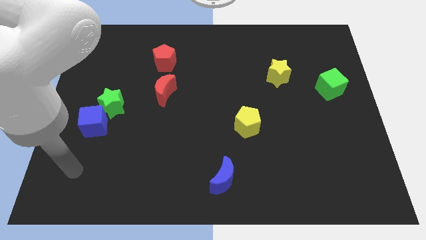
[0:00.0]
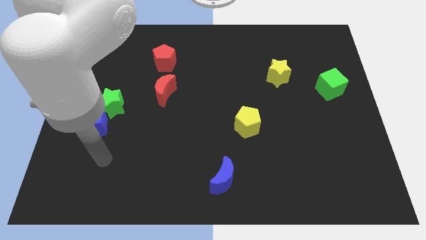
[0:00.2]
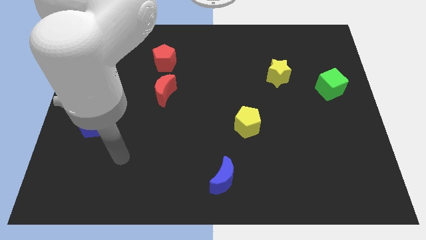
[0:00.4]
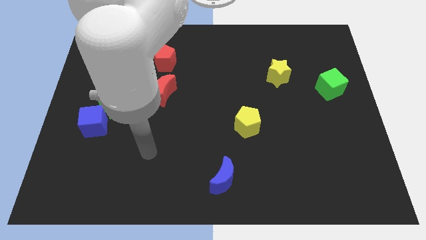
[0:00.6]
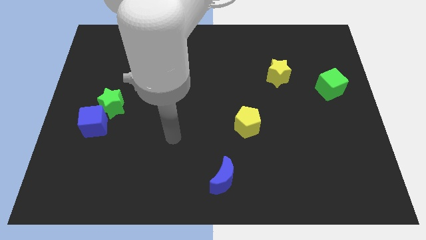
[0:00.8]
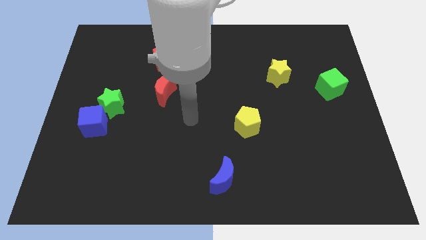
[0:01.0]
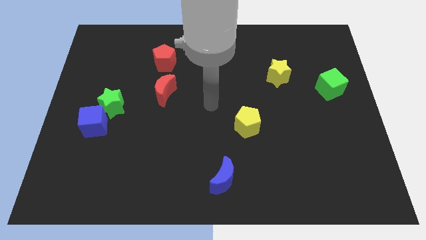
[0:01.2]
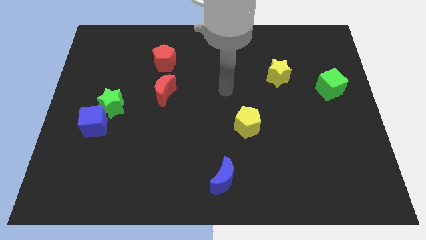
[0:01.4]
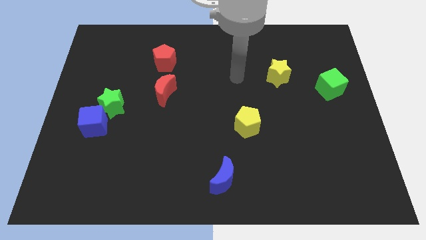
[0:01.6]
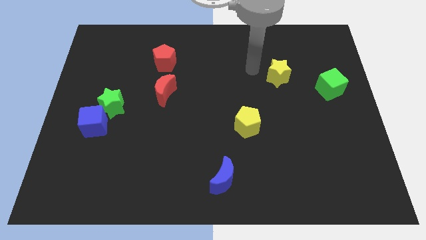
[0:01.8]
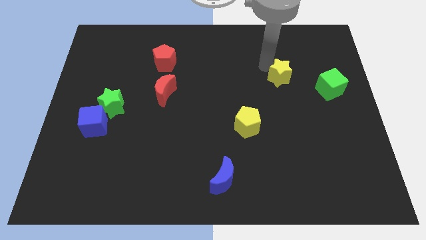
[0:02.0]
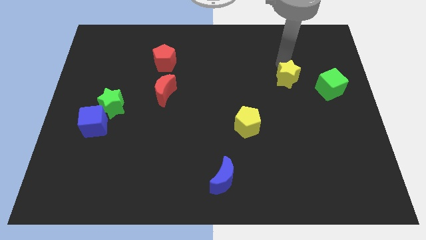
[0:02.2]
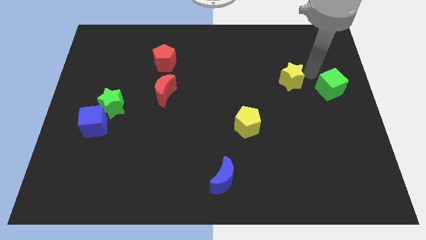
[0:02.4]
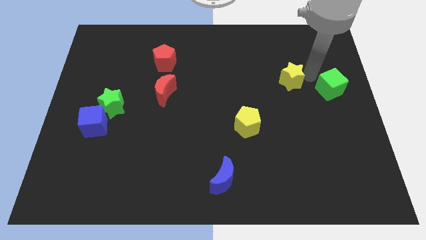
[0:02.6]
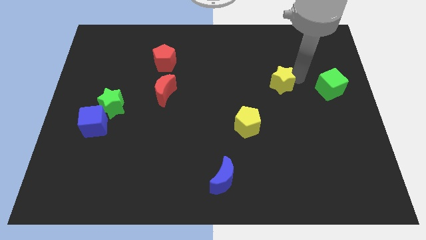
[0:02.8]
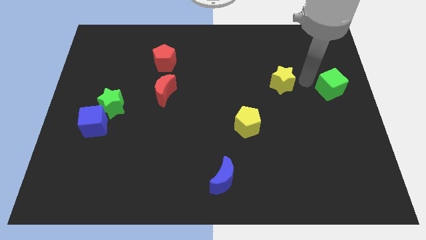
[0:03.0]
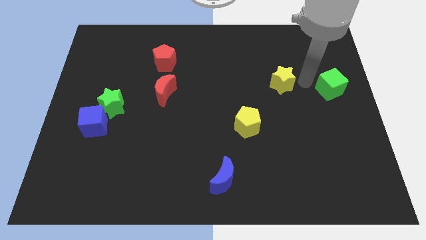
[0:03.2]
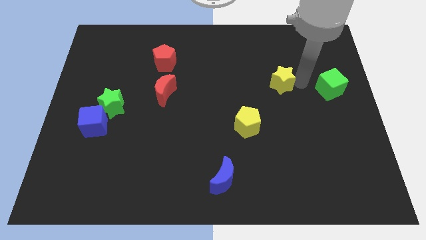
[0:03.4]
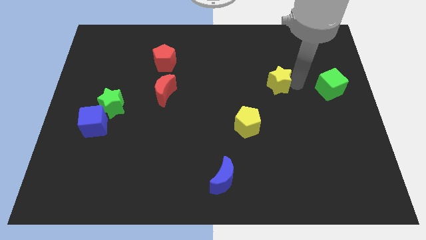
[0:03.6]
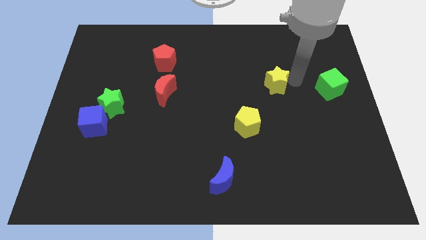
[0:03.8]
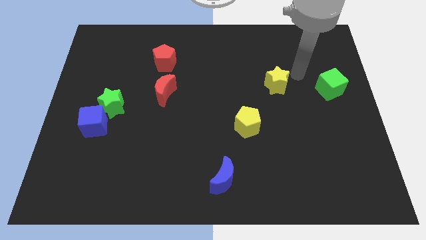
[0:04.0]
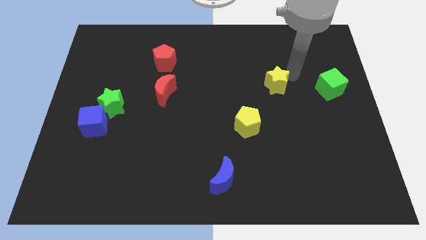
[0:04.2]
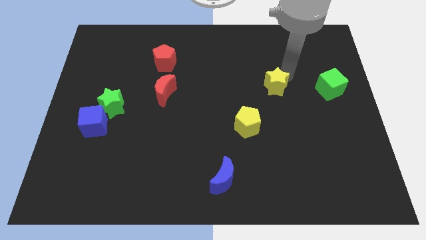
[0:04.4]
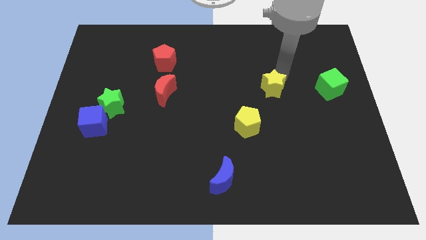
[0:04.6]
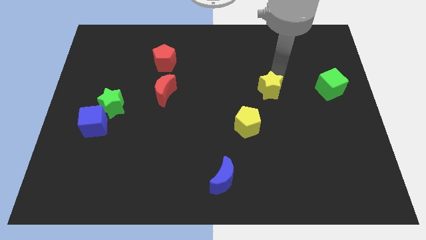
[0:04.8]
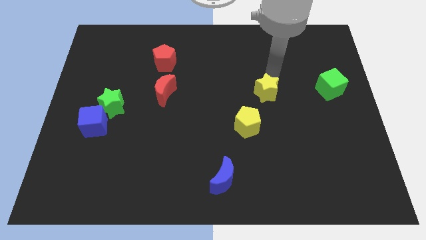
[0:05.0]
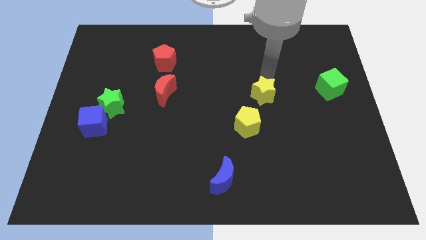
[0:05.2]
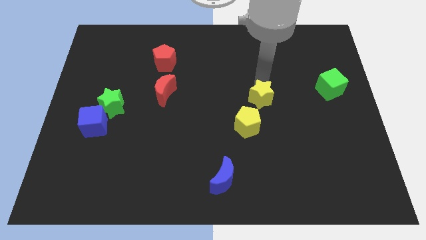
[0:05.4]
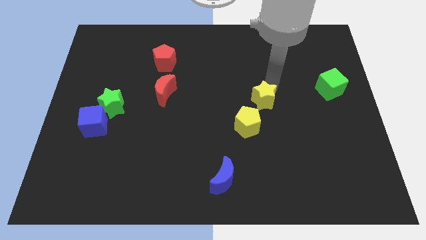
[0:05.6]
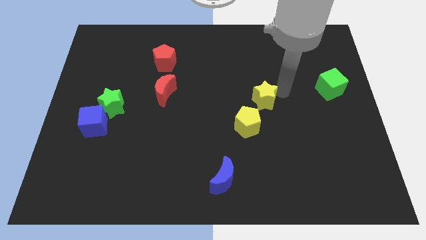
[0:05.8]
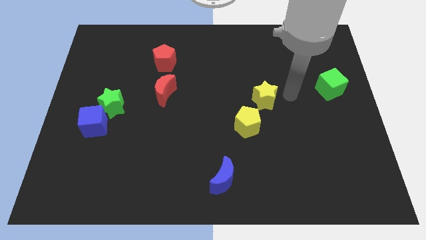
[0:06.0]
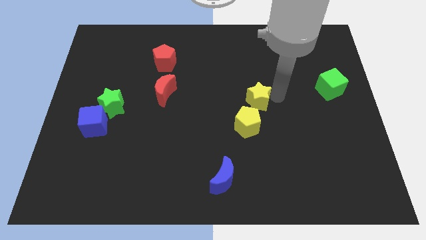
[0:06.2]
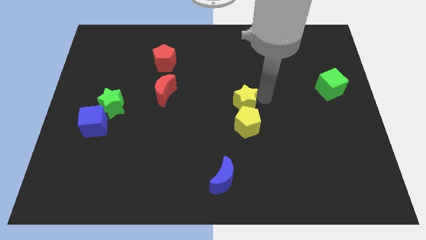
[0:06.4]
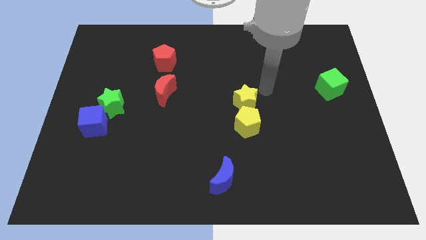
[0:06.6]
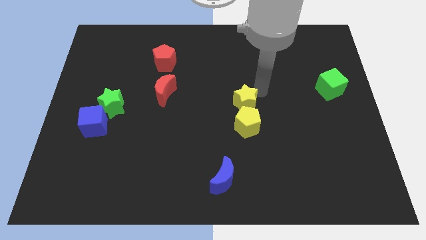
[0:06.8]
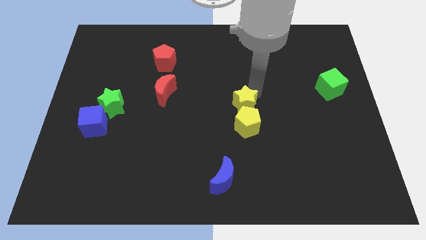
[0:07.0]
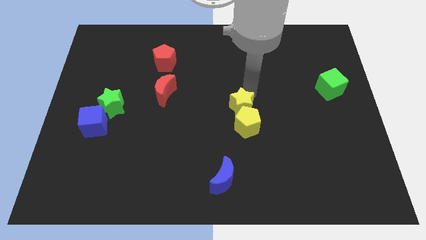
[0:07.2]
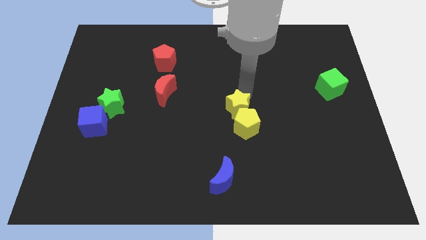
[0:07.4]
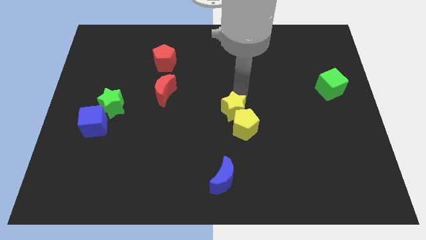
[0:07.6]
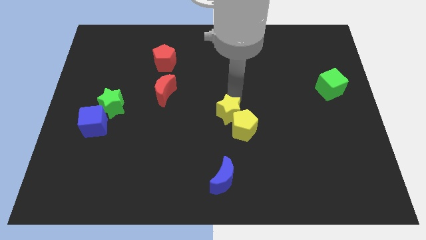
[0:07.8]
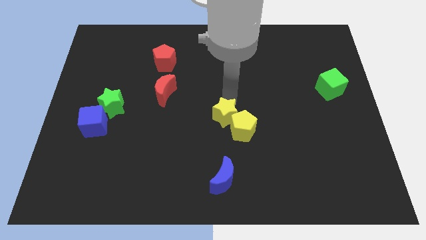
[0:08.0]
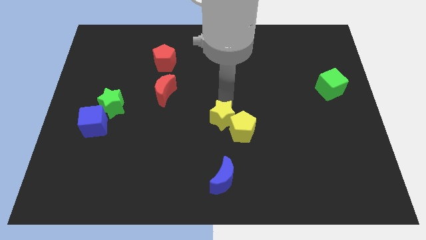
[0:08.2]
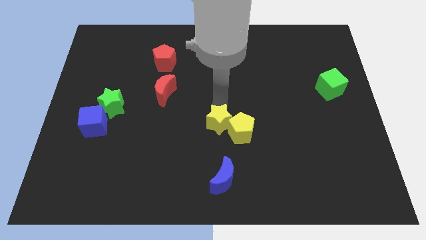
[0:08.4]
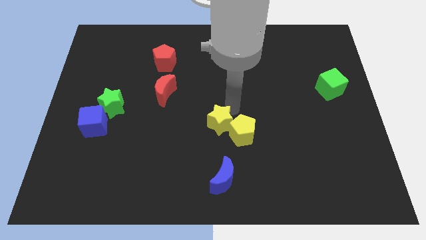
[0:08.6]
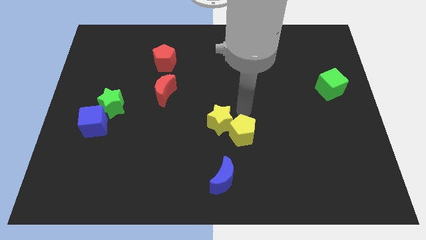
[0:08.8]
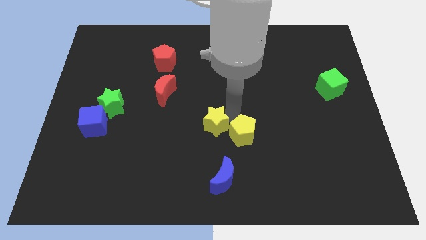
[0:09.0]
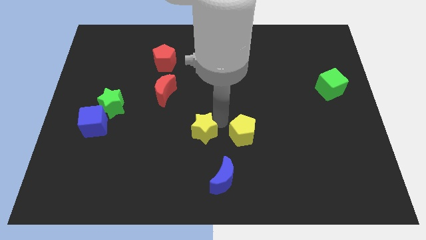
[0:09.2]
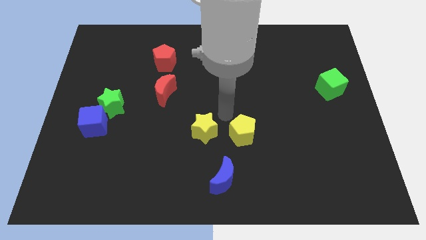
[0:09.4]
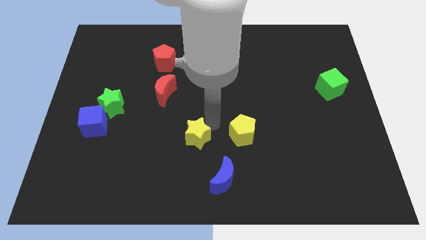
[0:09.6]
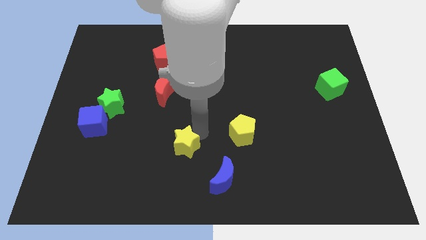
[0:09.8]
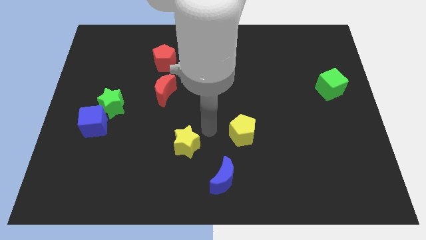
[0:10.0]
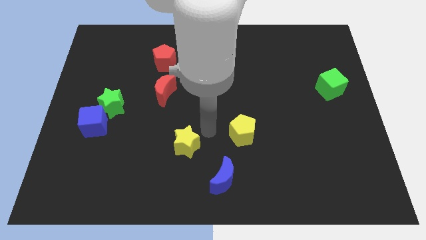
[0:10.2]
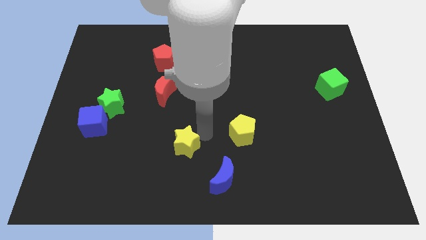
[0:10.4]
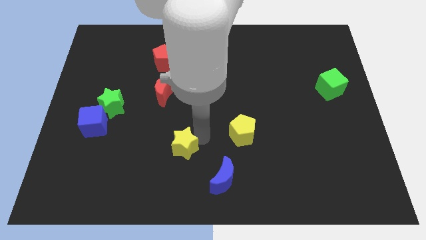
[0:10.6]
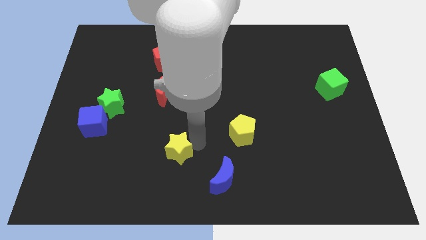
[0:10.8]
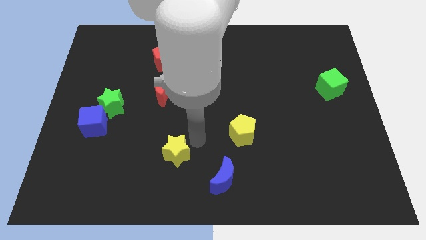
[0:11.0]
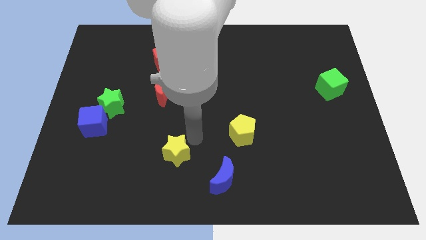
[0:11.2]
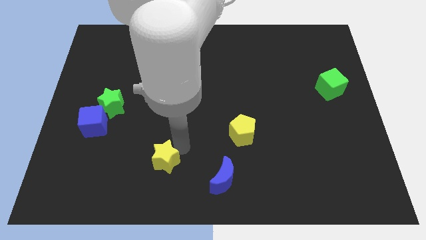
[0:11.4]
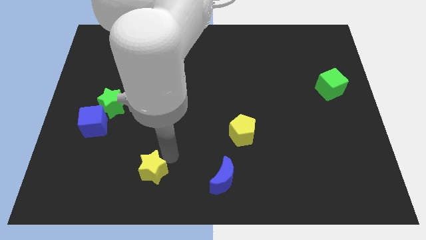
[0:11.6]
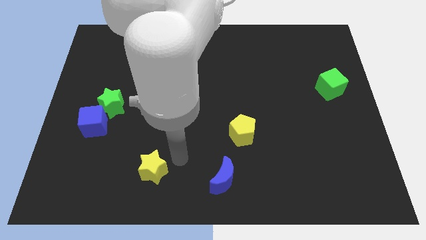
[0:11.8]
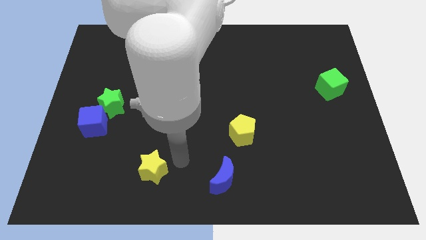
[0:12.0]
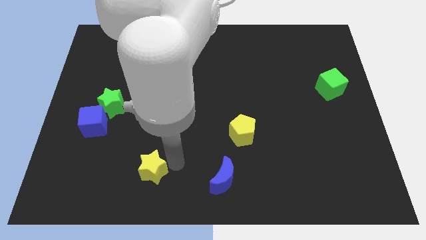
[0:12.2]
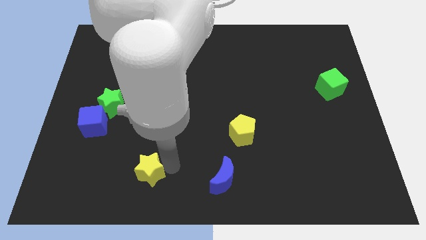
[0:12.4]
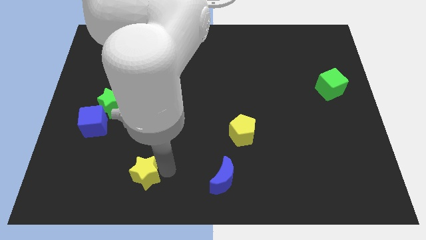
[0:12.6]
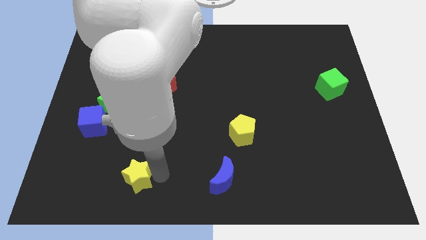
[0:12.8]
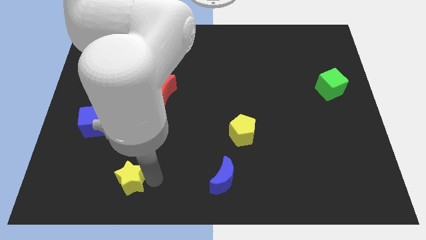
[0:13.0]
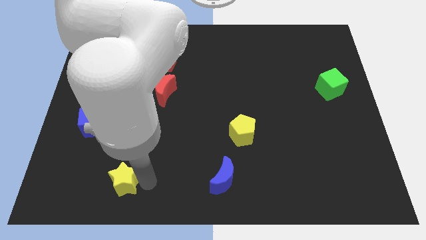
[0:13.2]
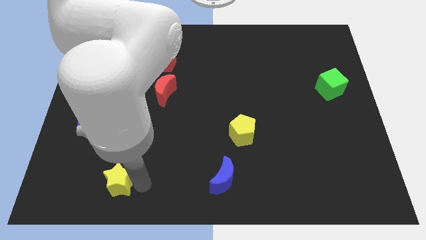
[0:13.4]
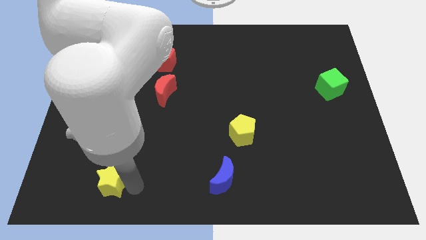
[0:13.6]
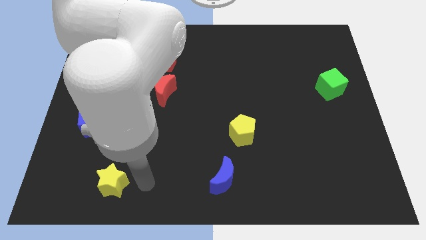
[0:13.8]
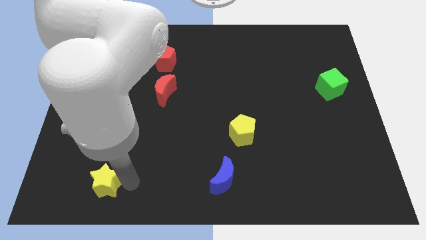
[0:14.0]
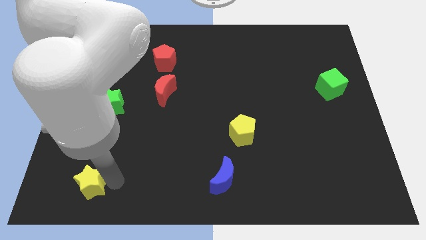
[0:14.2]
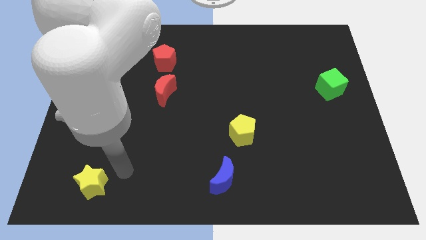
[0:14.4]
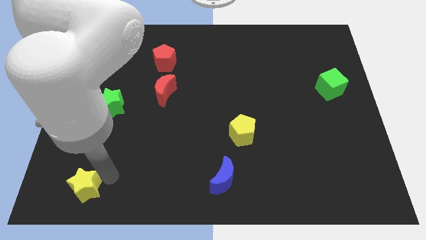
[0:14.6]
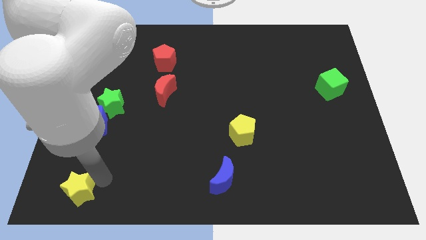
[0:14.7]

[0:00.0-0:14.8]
slide the yellow star to the bottom left corner
